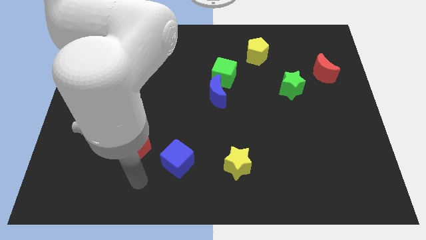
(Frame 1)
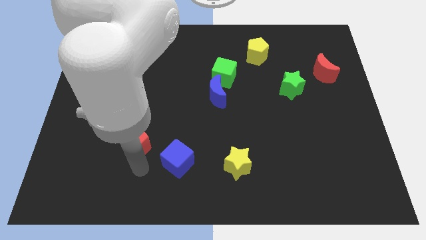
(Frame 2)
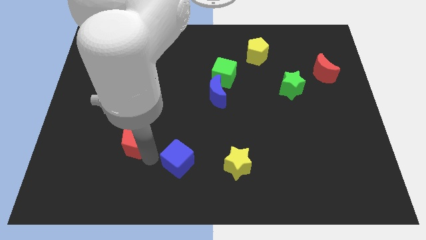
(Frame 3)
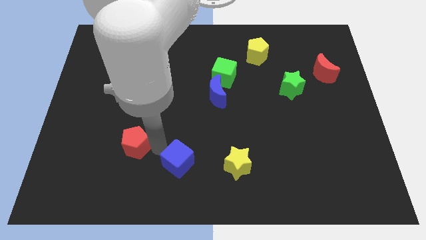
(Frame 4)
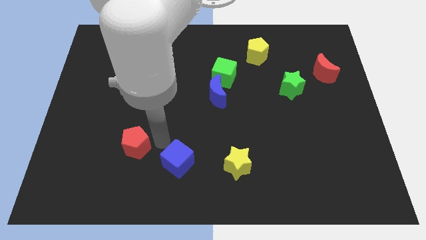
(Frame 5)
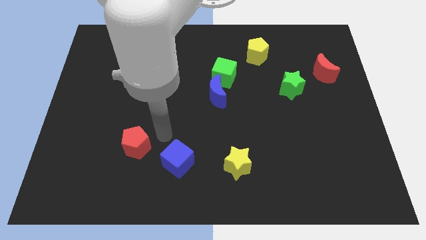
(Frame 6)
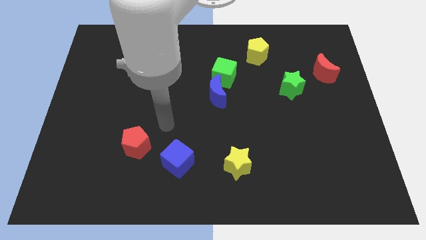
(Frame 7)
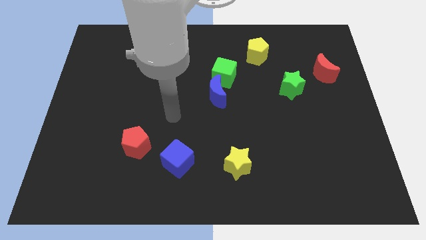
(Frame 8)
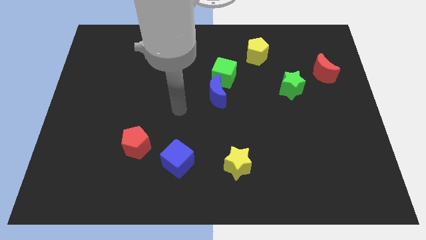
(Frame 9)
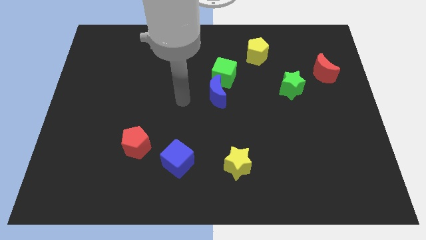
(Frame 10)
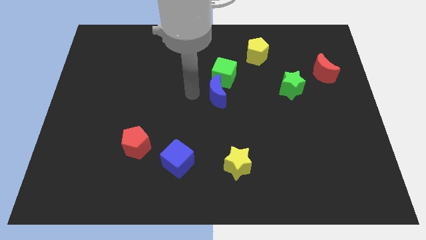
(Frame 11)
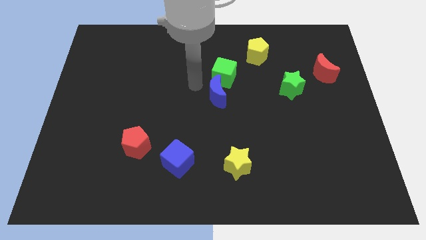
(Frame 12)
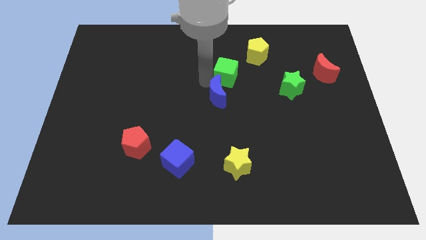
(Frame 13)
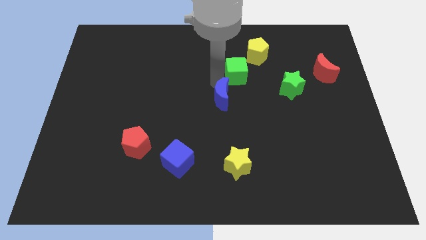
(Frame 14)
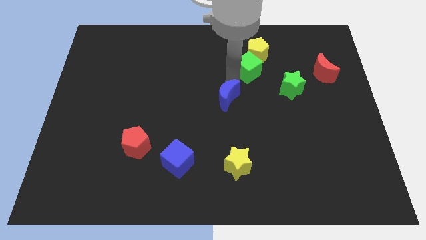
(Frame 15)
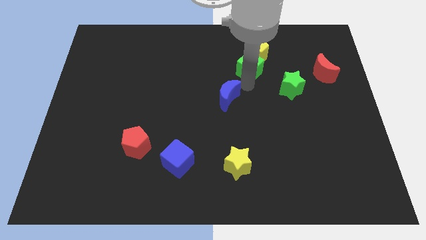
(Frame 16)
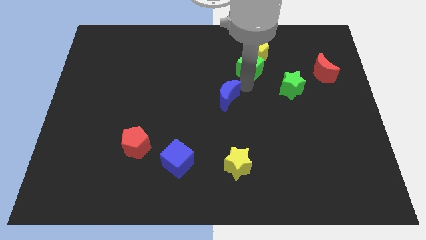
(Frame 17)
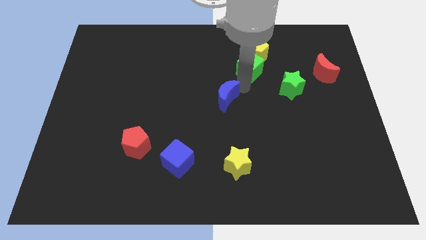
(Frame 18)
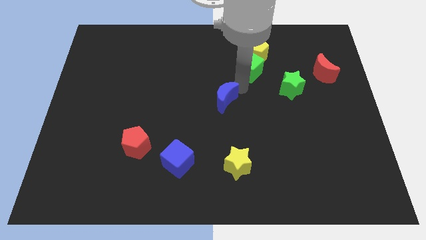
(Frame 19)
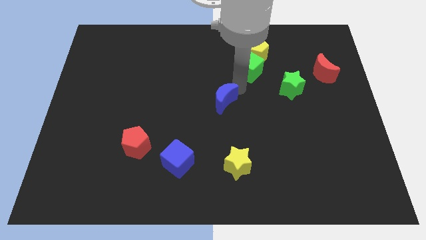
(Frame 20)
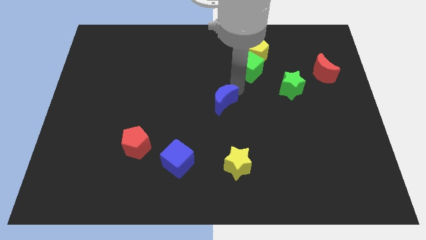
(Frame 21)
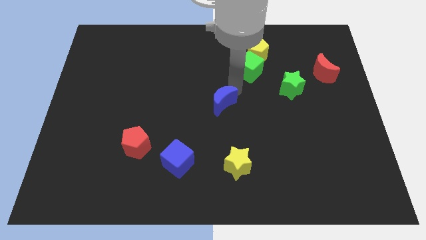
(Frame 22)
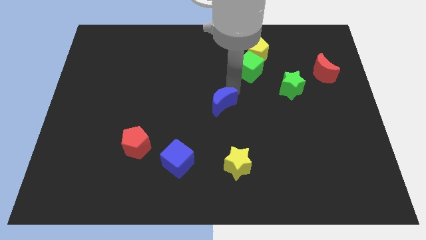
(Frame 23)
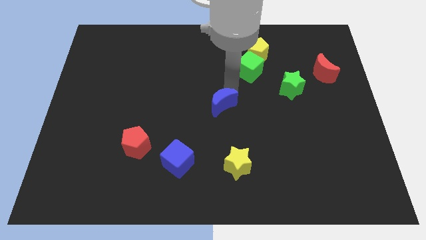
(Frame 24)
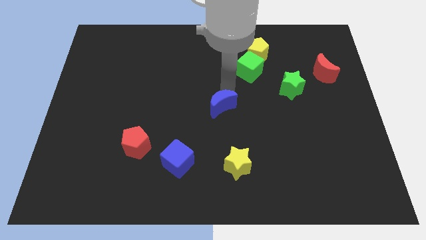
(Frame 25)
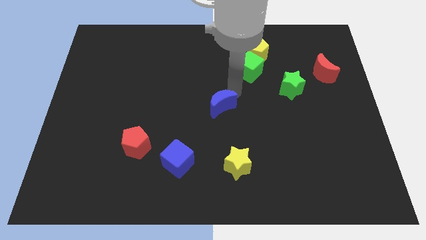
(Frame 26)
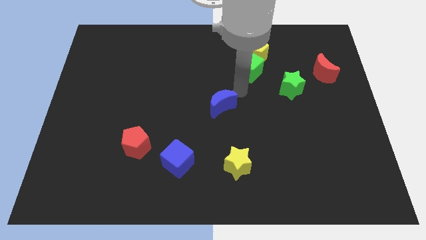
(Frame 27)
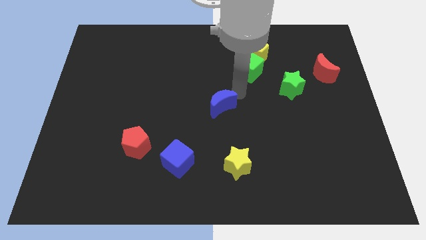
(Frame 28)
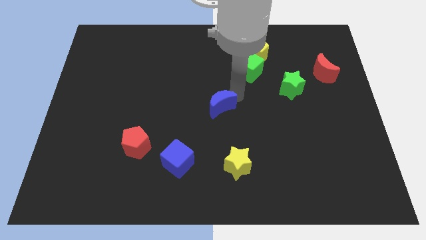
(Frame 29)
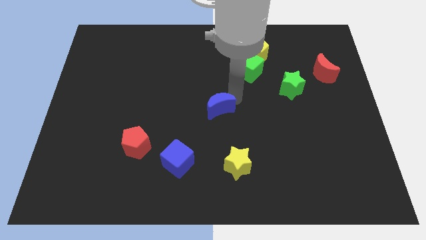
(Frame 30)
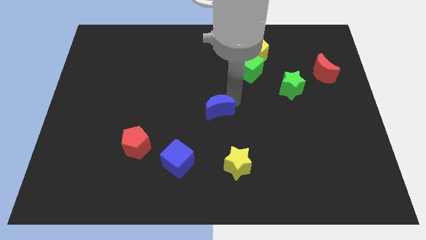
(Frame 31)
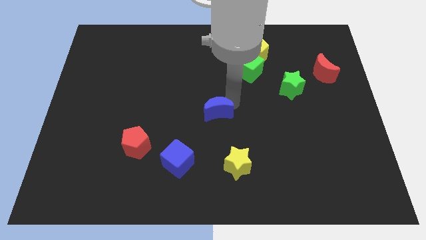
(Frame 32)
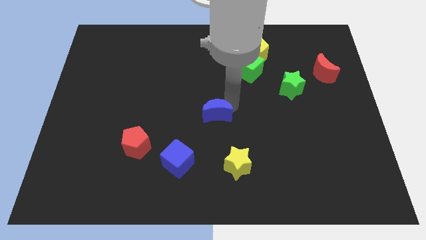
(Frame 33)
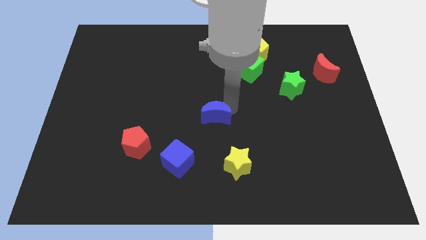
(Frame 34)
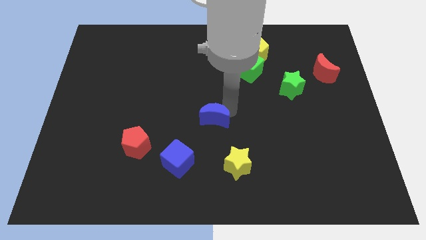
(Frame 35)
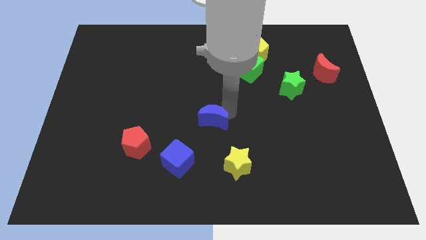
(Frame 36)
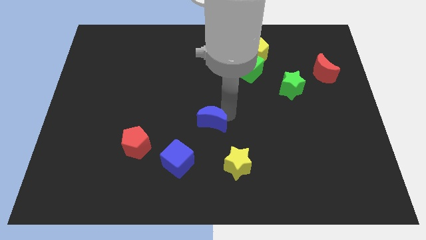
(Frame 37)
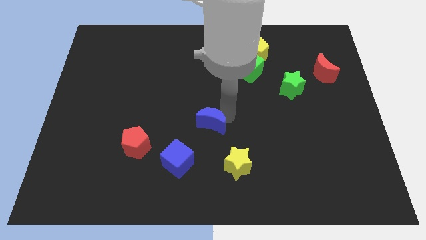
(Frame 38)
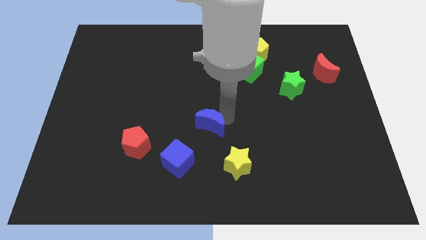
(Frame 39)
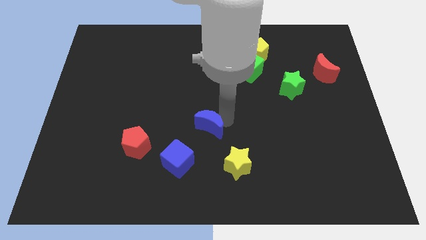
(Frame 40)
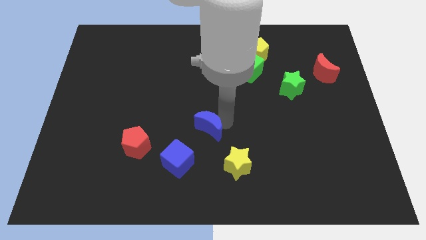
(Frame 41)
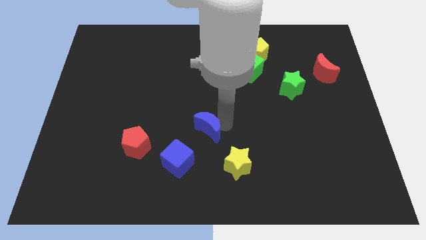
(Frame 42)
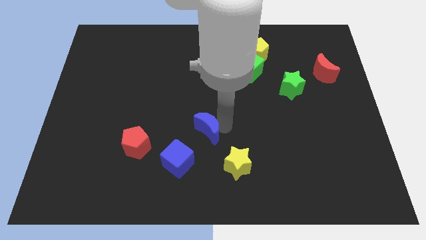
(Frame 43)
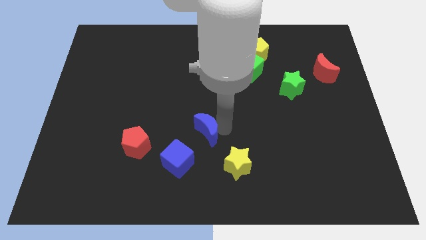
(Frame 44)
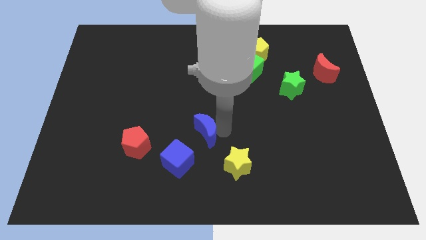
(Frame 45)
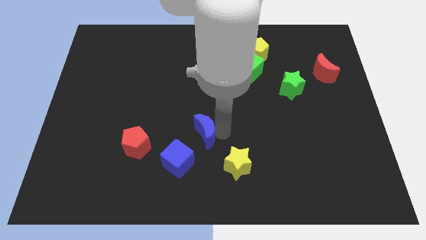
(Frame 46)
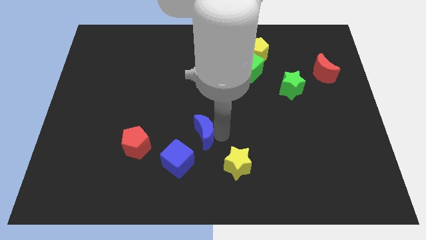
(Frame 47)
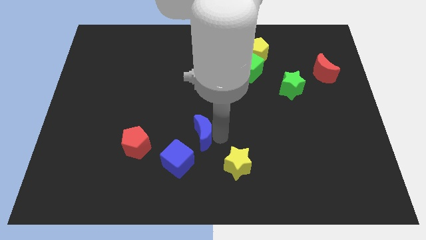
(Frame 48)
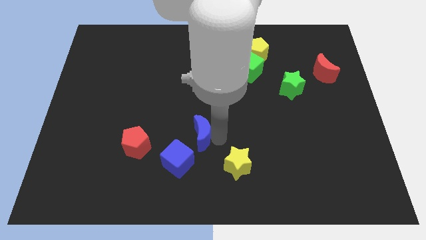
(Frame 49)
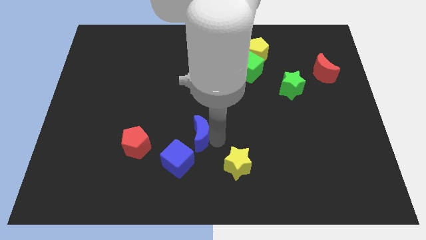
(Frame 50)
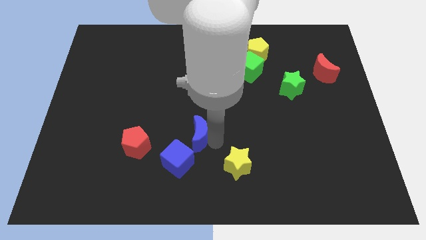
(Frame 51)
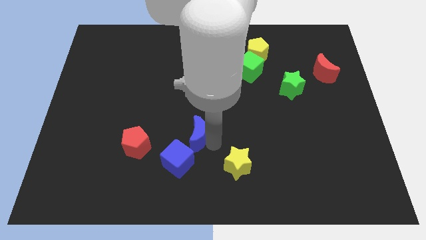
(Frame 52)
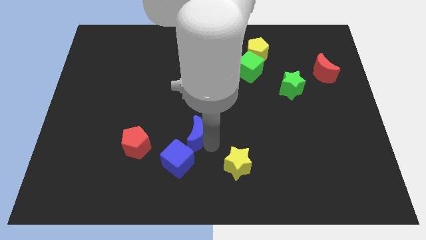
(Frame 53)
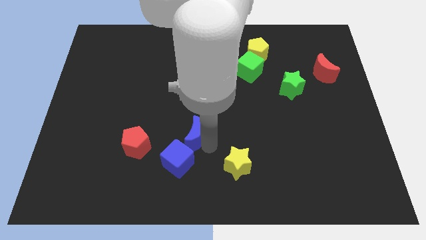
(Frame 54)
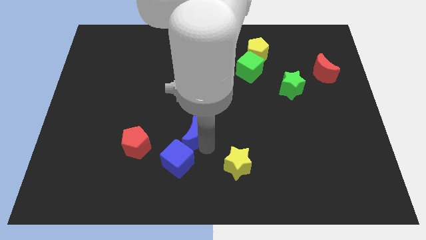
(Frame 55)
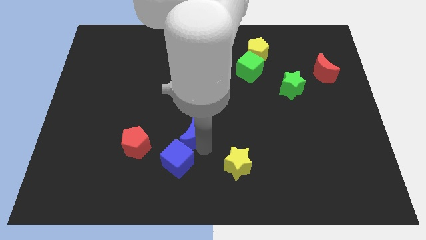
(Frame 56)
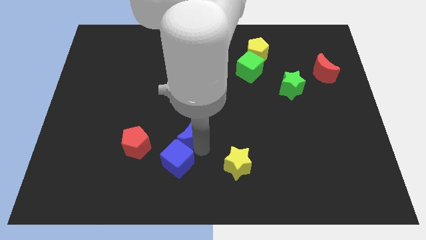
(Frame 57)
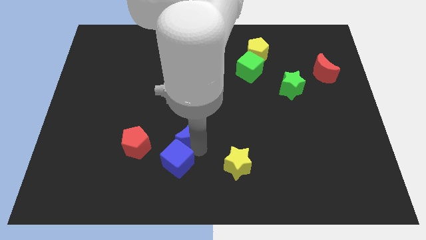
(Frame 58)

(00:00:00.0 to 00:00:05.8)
move the blue moon towards the blue cube

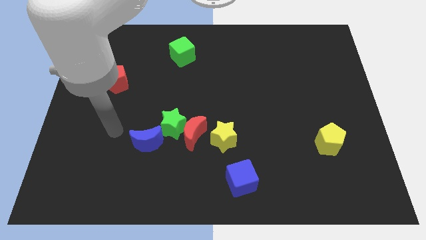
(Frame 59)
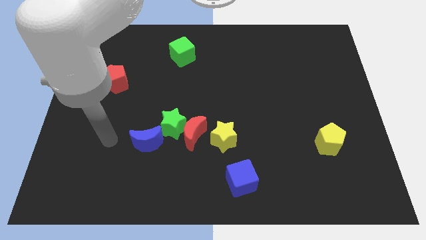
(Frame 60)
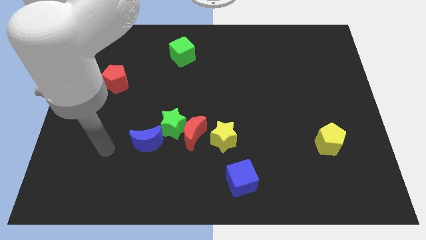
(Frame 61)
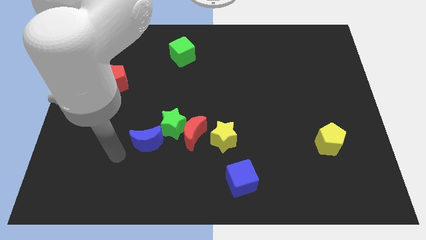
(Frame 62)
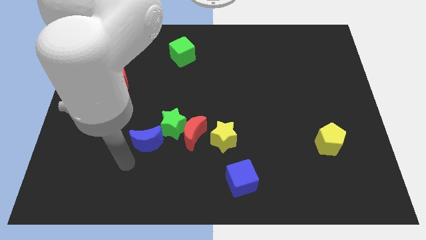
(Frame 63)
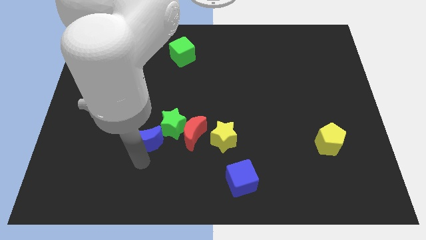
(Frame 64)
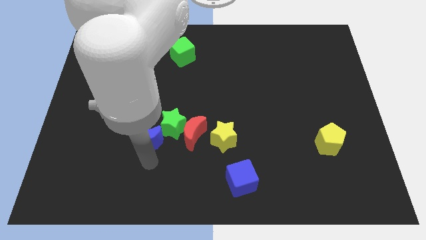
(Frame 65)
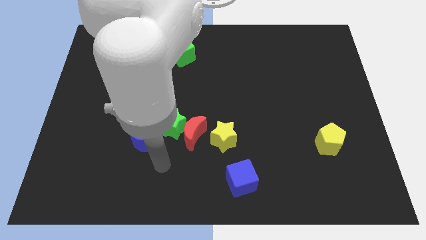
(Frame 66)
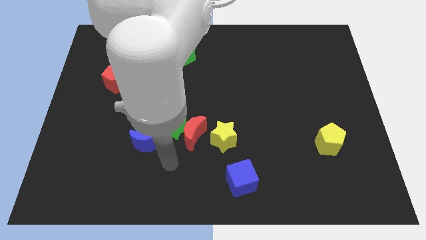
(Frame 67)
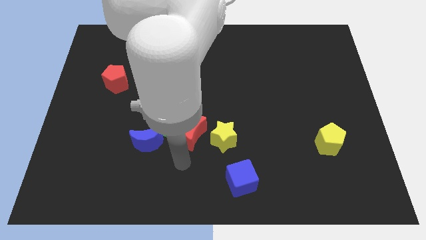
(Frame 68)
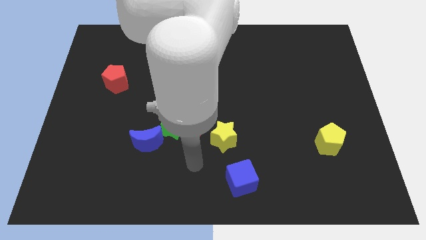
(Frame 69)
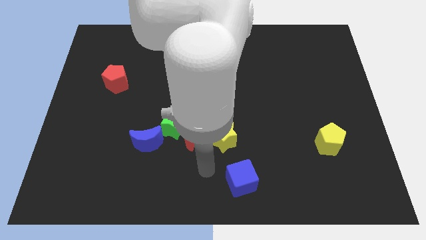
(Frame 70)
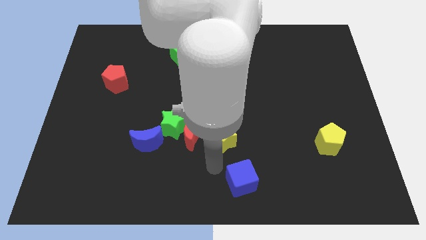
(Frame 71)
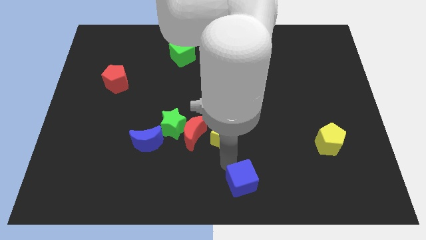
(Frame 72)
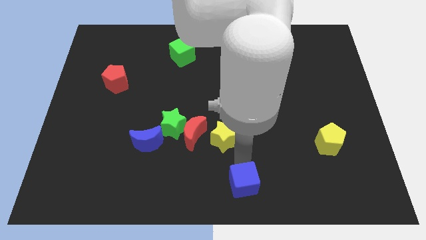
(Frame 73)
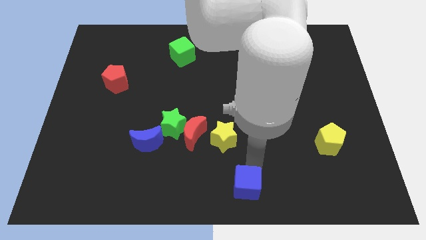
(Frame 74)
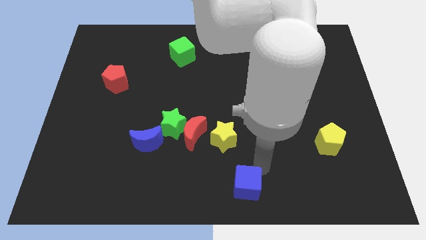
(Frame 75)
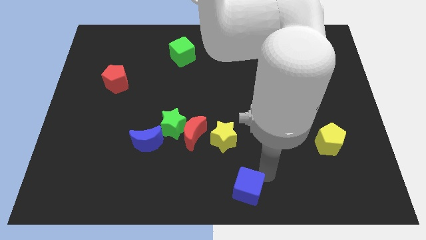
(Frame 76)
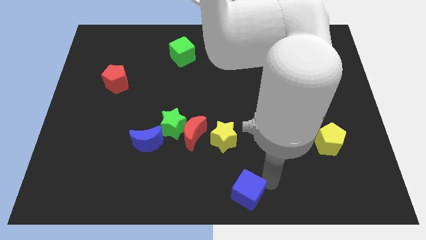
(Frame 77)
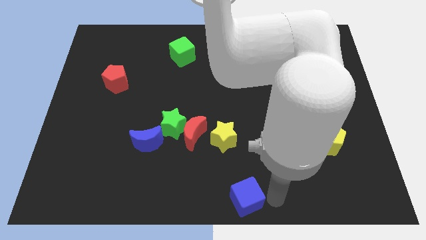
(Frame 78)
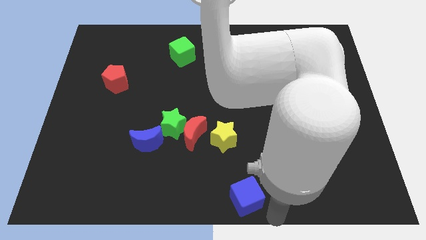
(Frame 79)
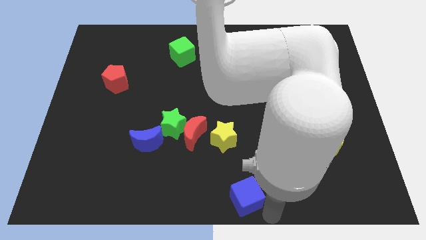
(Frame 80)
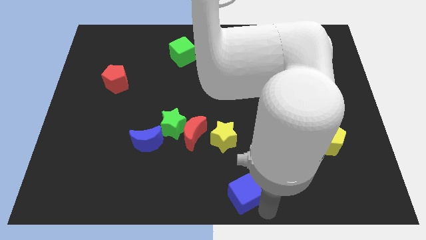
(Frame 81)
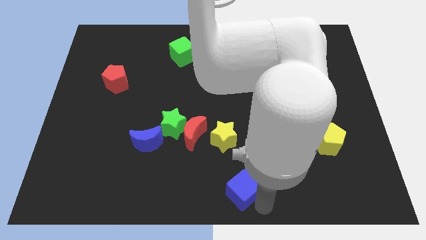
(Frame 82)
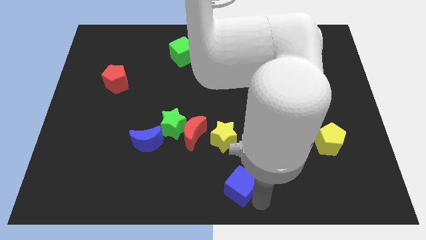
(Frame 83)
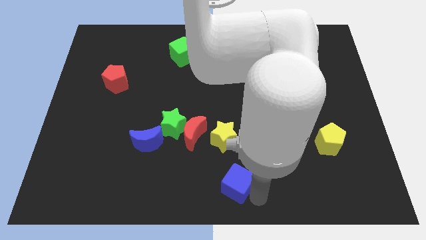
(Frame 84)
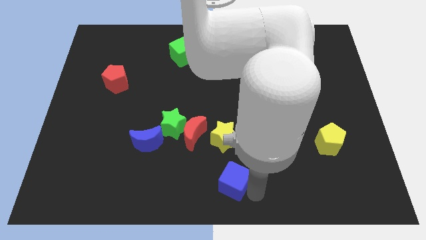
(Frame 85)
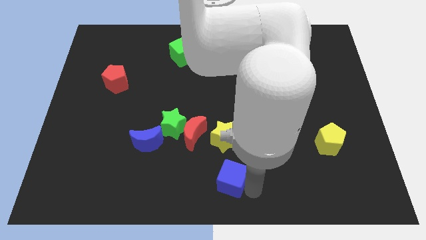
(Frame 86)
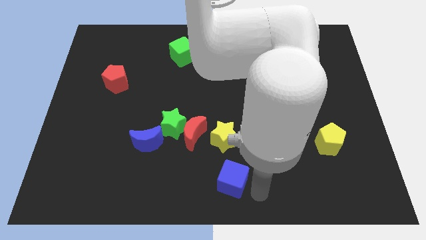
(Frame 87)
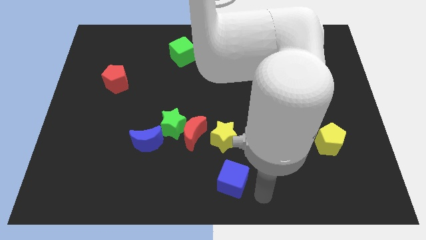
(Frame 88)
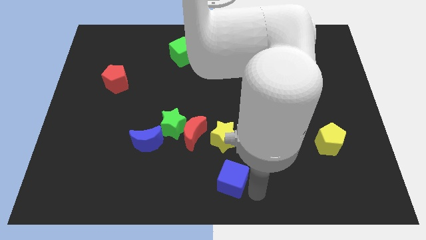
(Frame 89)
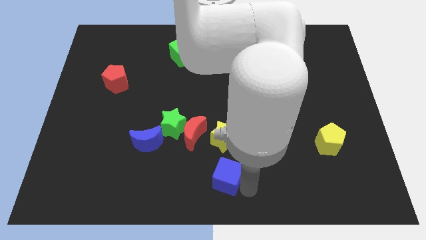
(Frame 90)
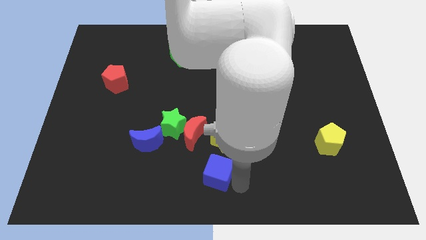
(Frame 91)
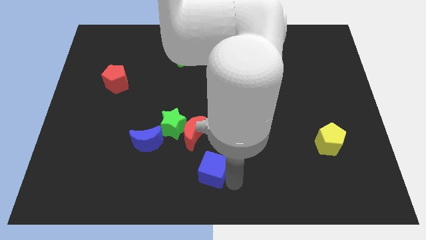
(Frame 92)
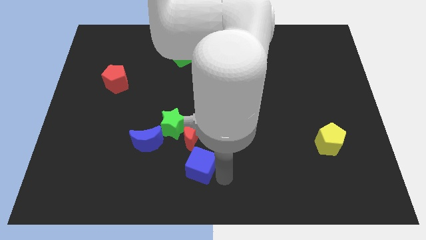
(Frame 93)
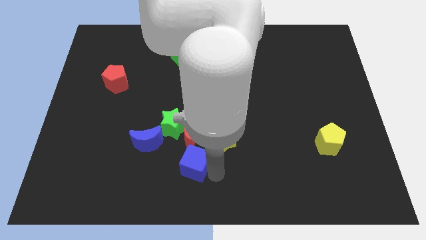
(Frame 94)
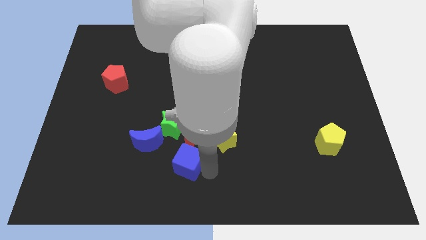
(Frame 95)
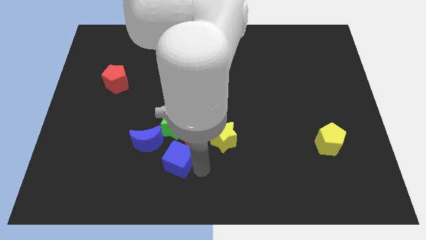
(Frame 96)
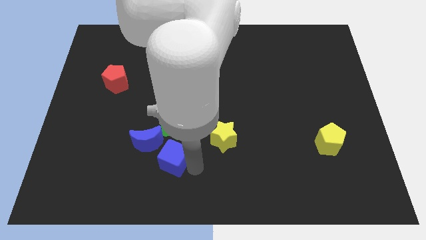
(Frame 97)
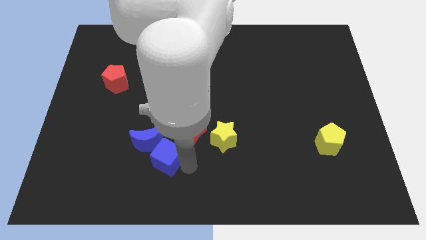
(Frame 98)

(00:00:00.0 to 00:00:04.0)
move the blue cube next to the blue moon
